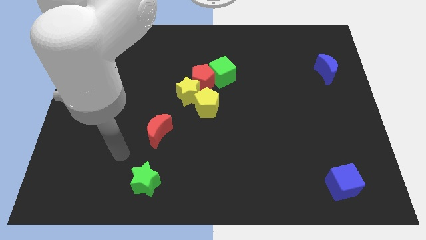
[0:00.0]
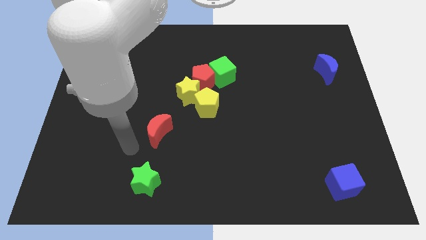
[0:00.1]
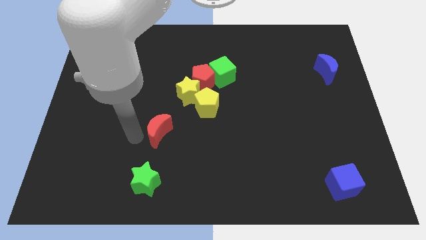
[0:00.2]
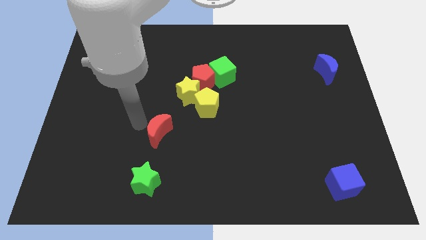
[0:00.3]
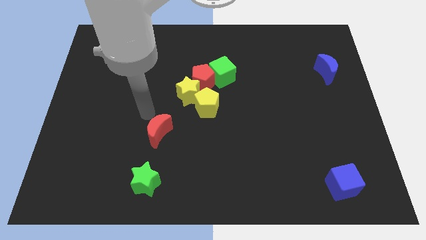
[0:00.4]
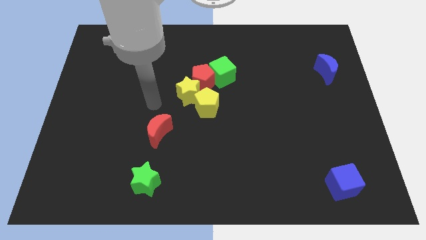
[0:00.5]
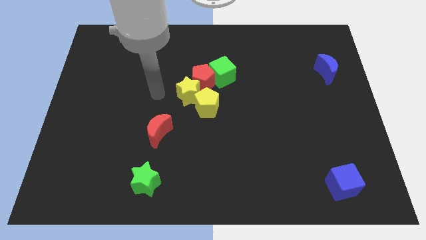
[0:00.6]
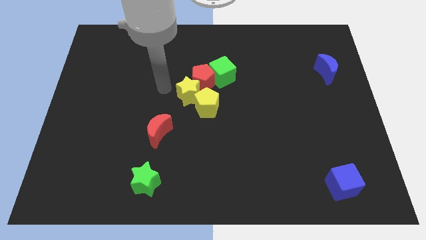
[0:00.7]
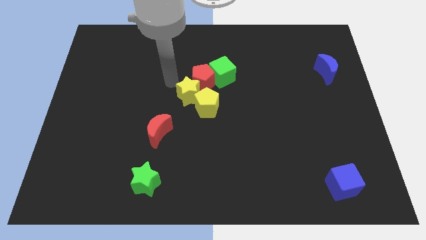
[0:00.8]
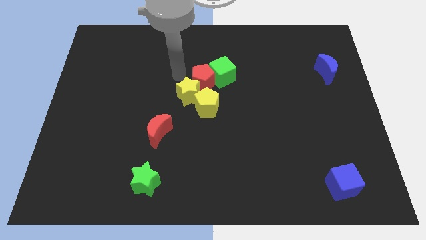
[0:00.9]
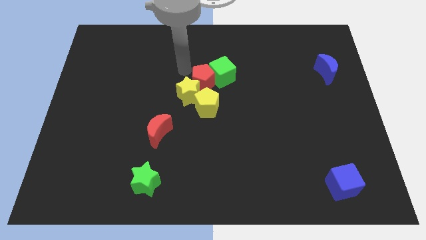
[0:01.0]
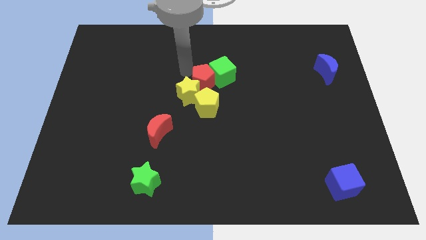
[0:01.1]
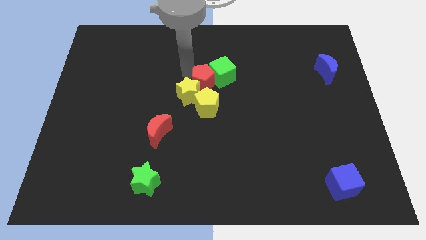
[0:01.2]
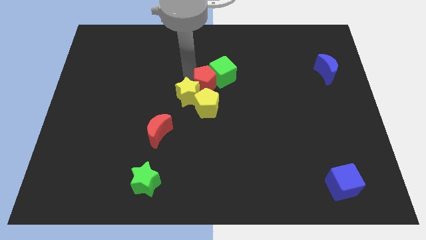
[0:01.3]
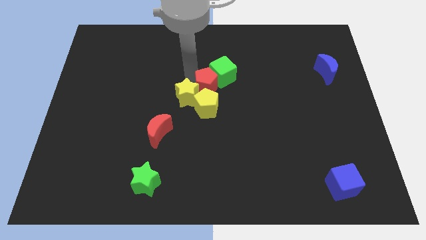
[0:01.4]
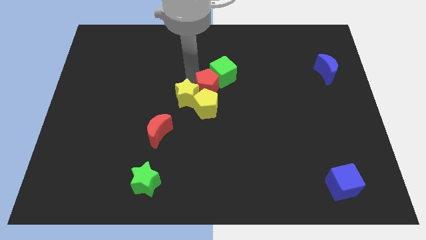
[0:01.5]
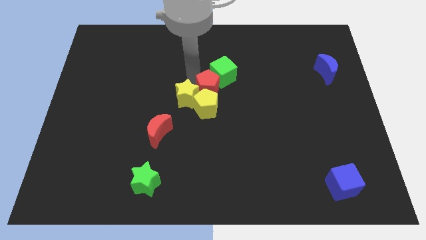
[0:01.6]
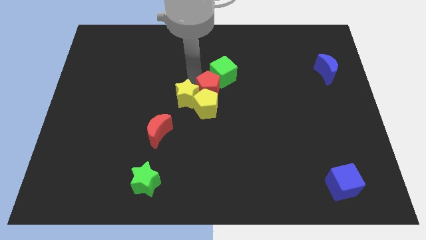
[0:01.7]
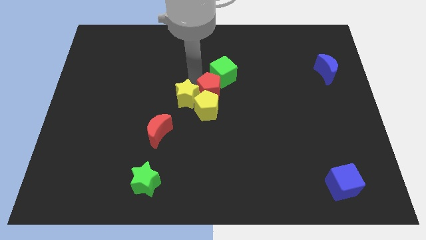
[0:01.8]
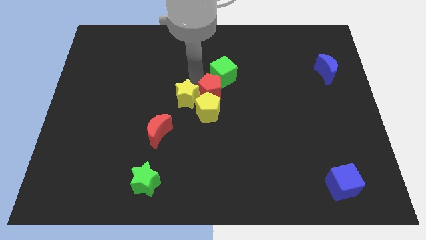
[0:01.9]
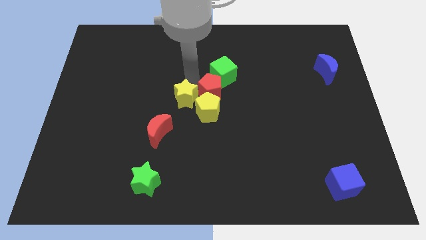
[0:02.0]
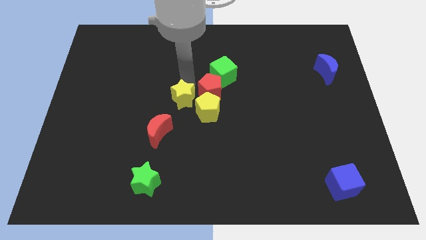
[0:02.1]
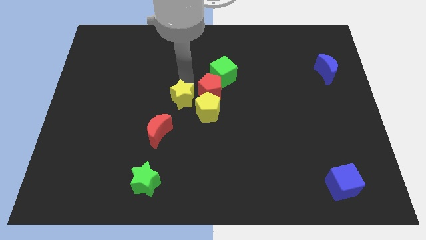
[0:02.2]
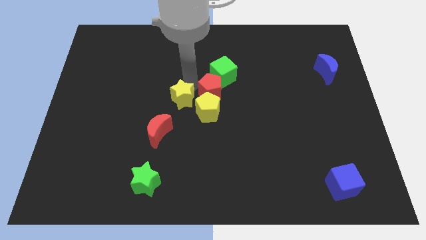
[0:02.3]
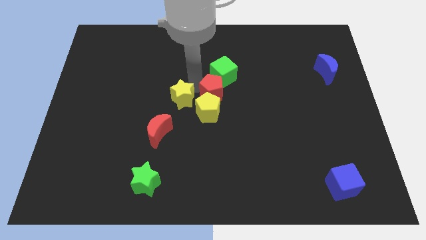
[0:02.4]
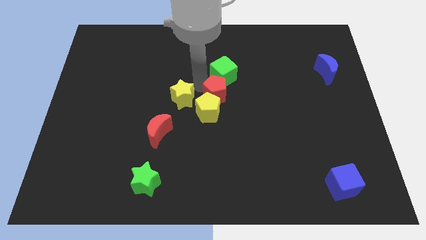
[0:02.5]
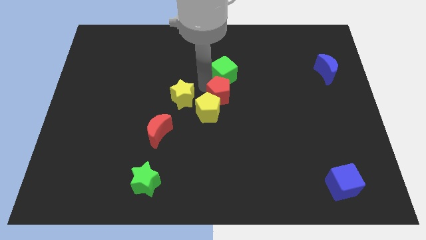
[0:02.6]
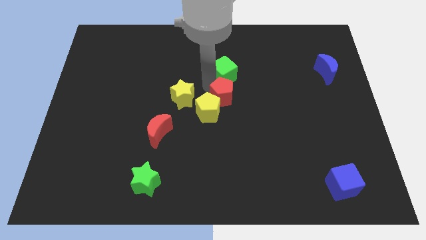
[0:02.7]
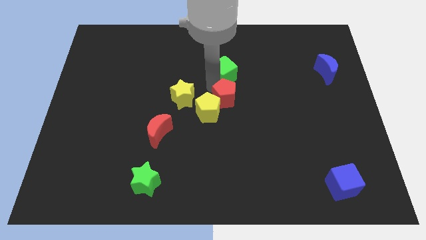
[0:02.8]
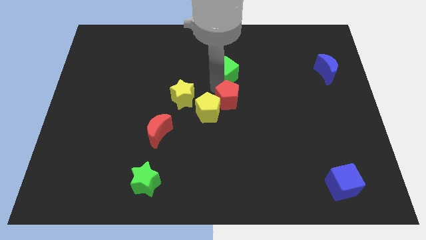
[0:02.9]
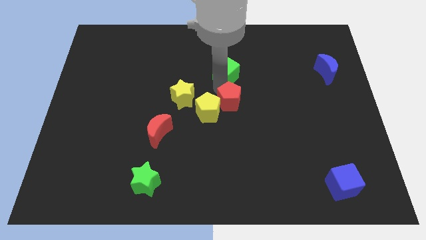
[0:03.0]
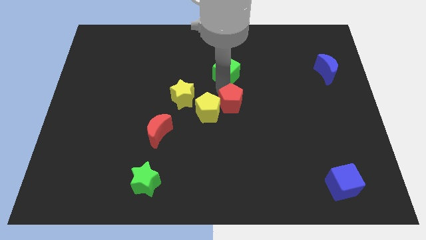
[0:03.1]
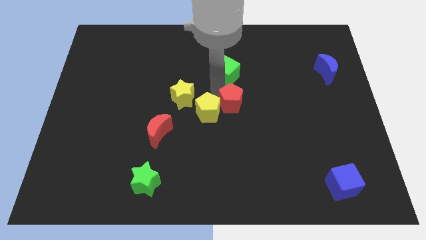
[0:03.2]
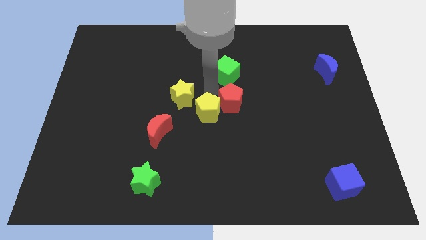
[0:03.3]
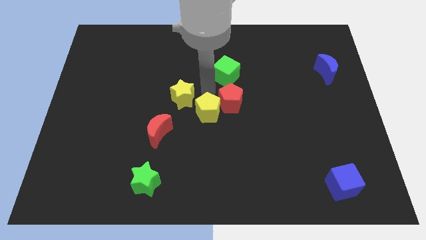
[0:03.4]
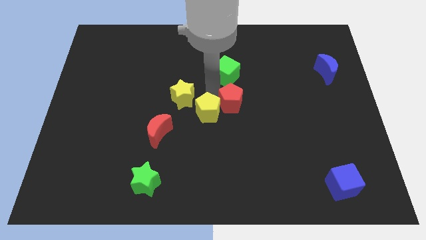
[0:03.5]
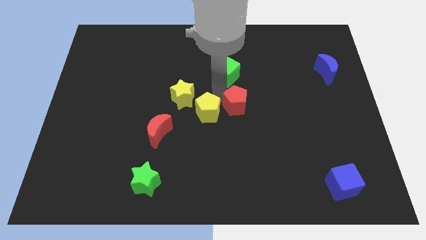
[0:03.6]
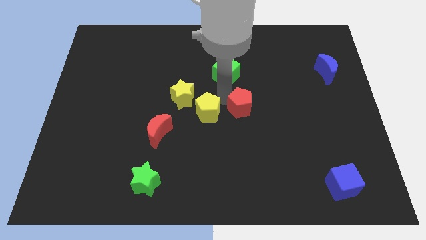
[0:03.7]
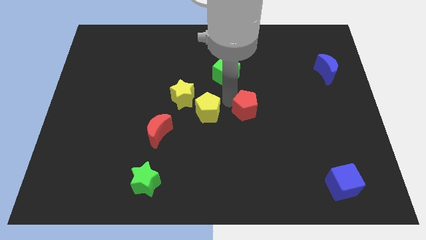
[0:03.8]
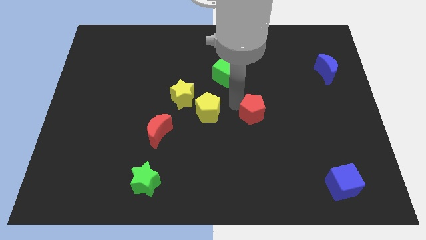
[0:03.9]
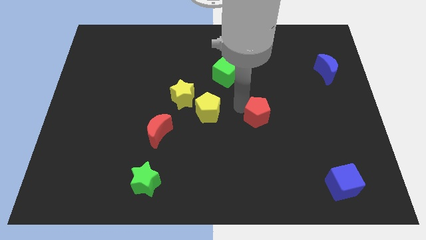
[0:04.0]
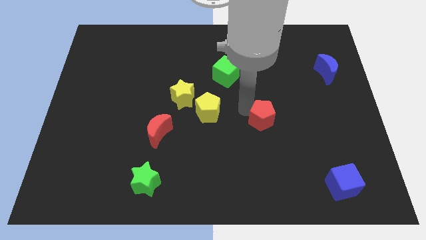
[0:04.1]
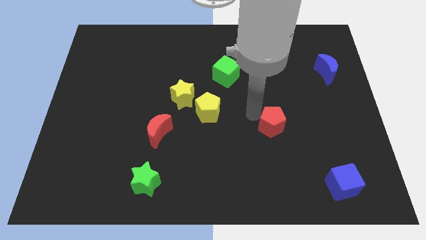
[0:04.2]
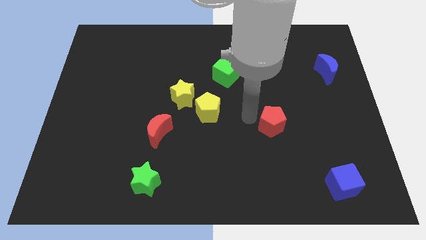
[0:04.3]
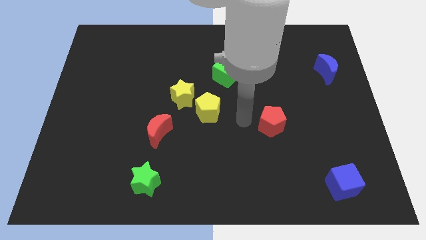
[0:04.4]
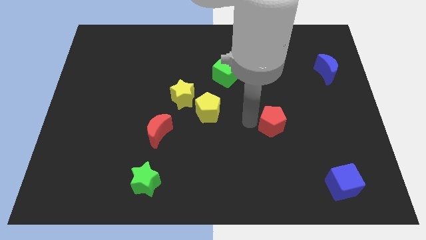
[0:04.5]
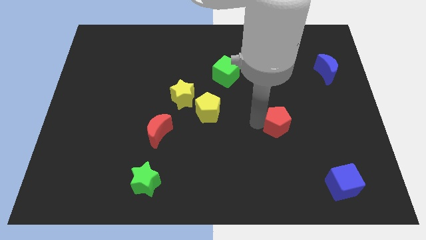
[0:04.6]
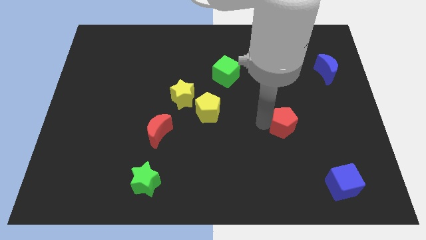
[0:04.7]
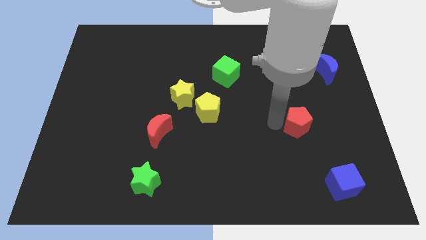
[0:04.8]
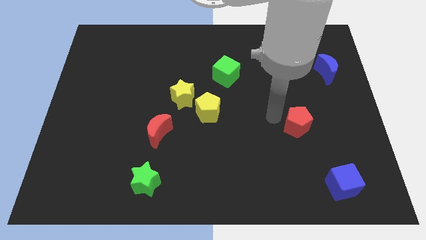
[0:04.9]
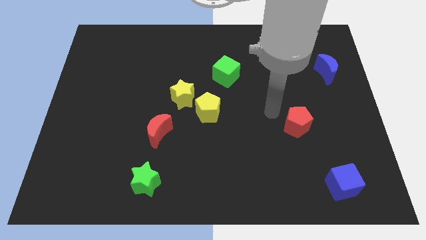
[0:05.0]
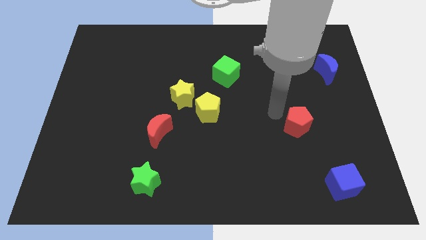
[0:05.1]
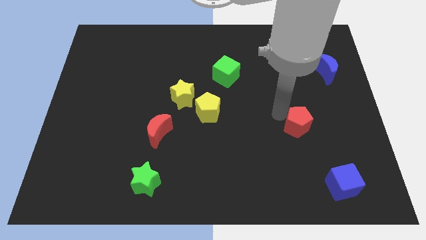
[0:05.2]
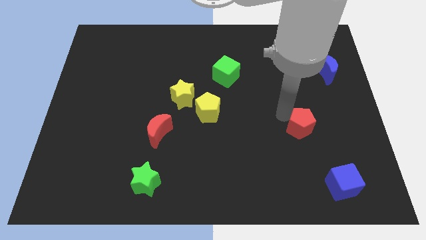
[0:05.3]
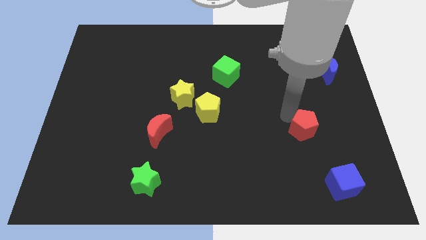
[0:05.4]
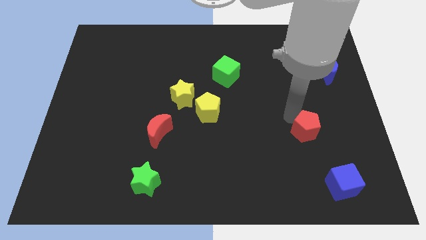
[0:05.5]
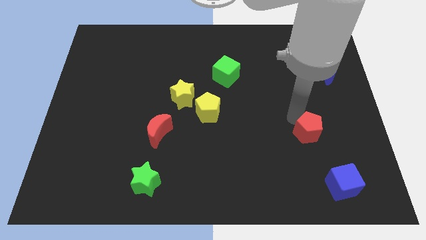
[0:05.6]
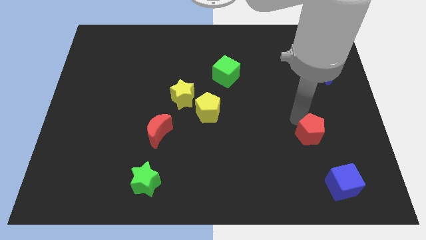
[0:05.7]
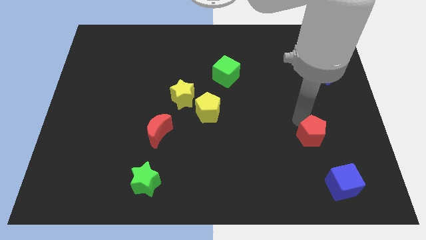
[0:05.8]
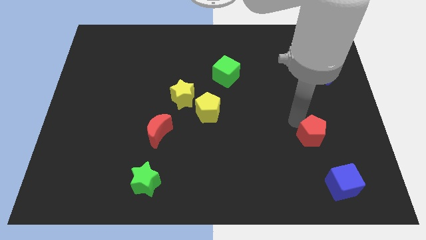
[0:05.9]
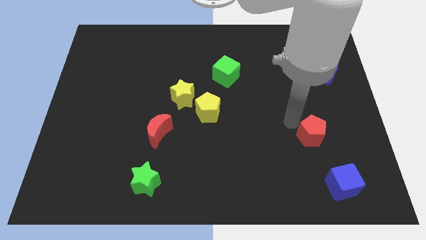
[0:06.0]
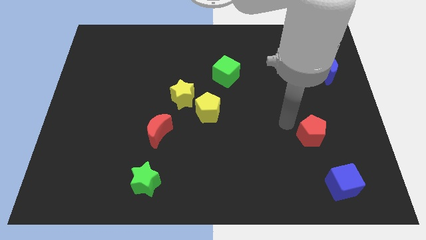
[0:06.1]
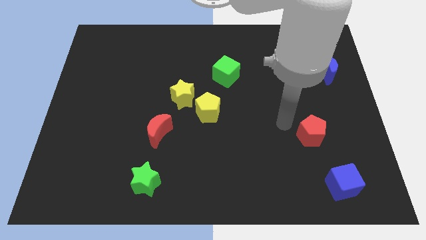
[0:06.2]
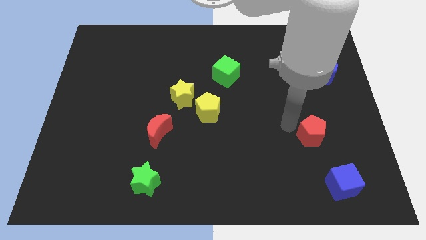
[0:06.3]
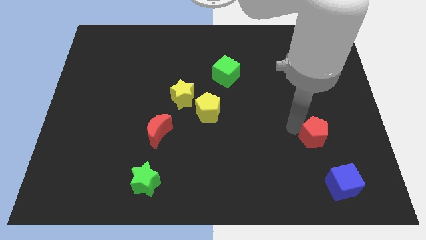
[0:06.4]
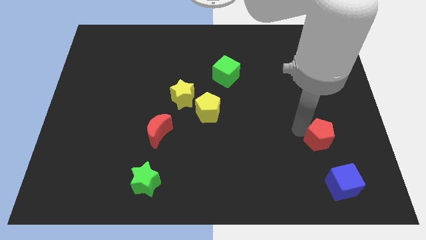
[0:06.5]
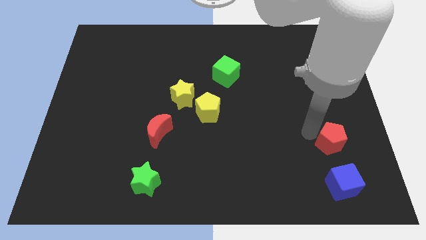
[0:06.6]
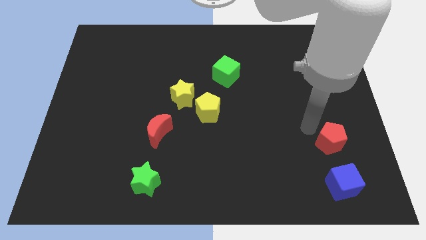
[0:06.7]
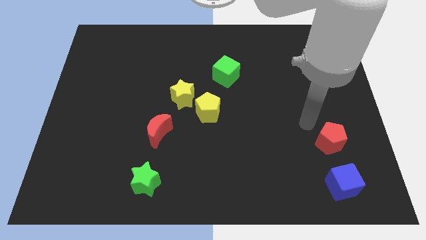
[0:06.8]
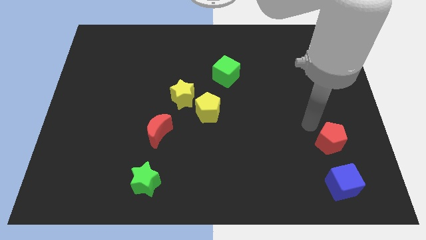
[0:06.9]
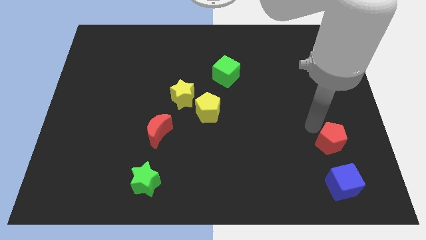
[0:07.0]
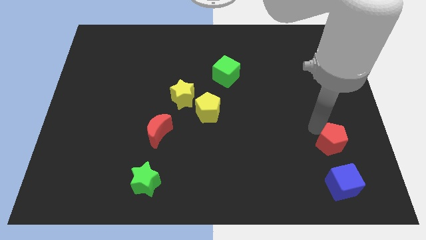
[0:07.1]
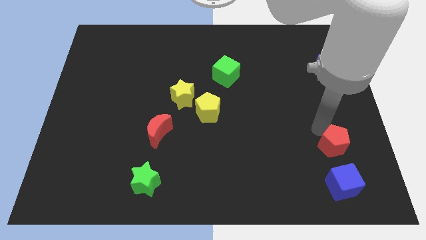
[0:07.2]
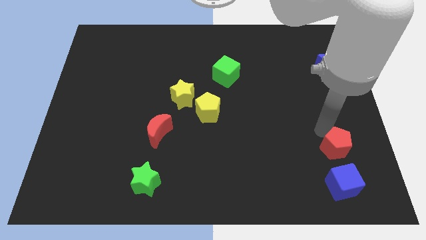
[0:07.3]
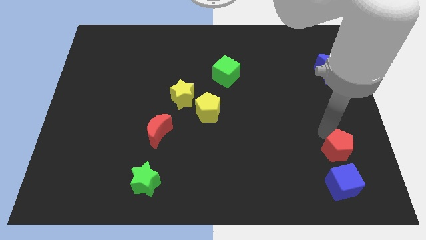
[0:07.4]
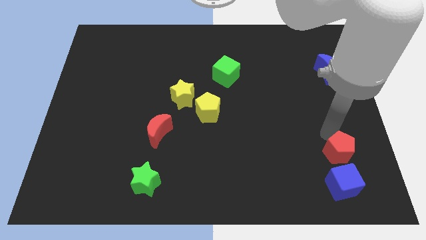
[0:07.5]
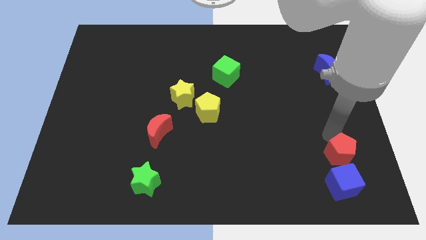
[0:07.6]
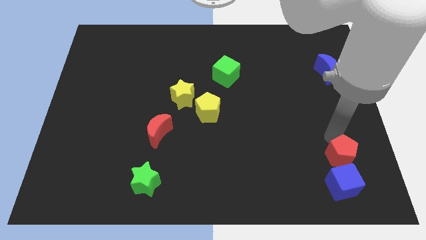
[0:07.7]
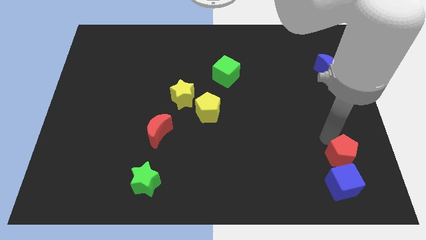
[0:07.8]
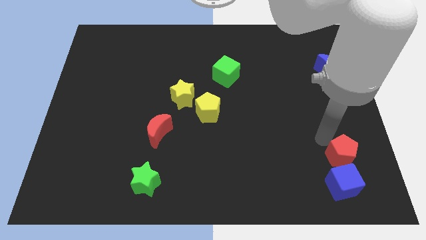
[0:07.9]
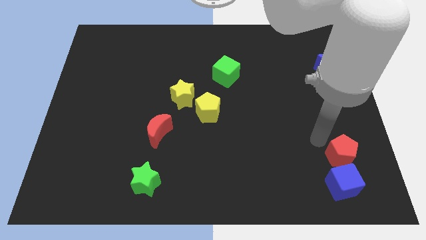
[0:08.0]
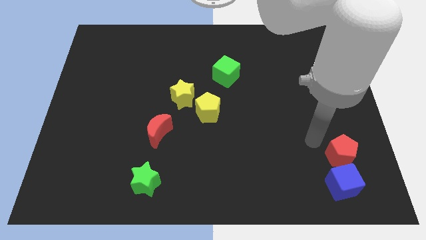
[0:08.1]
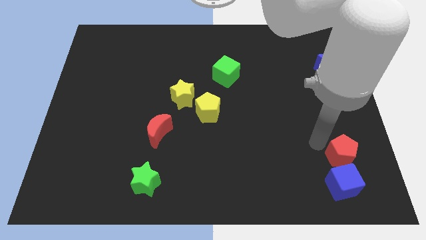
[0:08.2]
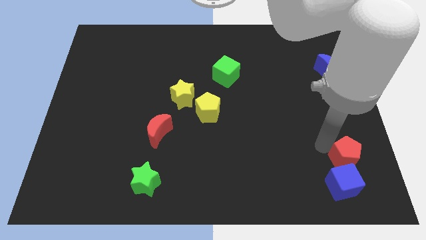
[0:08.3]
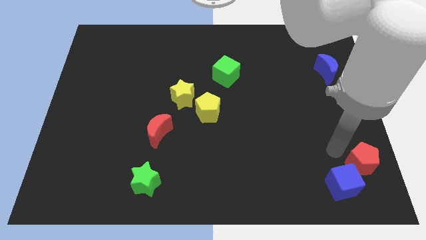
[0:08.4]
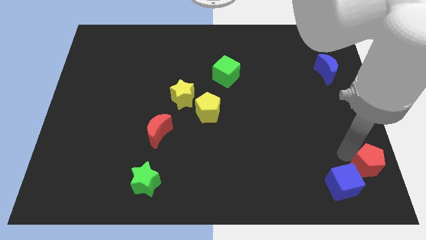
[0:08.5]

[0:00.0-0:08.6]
move the red pentagon to the bottom right
